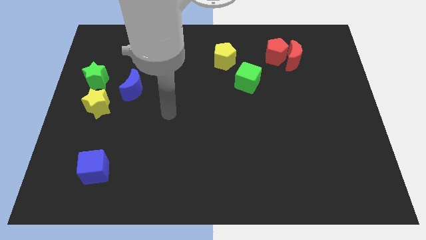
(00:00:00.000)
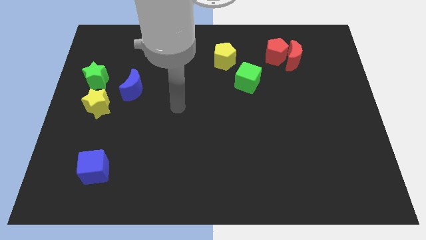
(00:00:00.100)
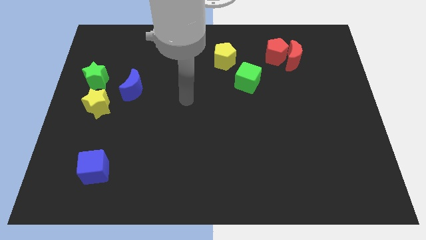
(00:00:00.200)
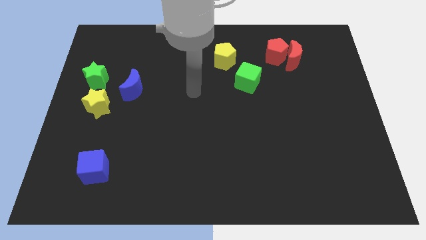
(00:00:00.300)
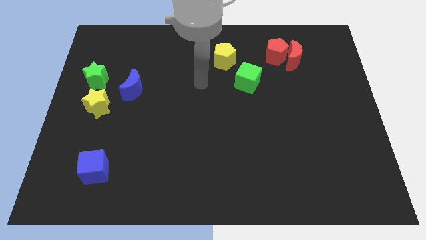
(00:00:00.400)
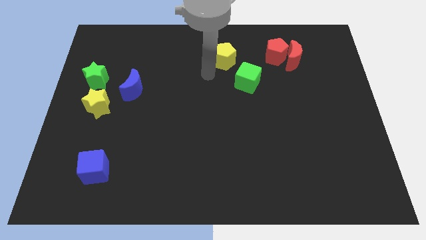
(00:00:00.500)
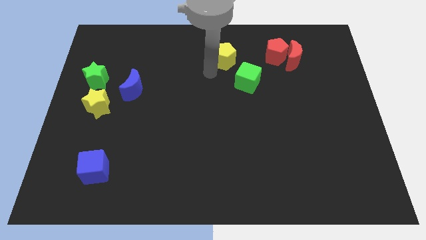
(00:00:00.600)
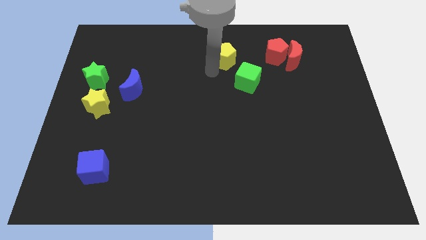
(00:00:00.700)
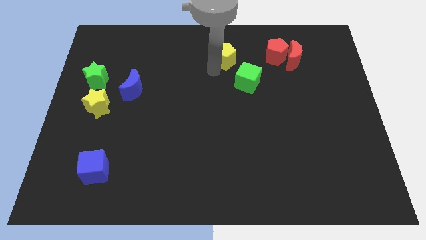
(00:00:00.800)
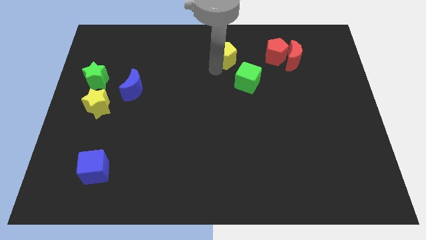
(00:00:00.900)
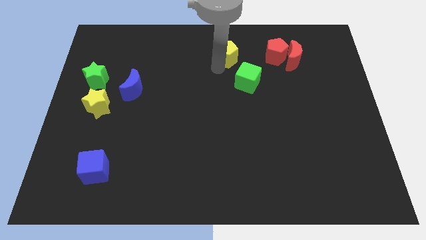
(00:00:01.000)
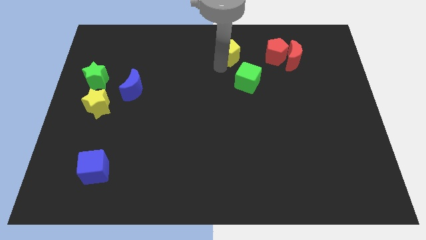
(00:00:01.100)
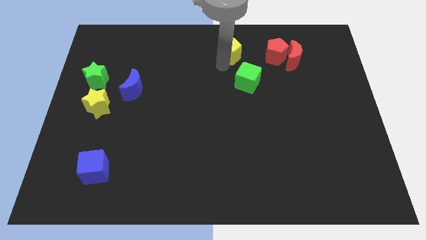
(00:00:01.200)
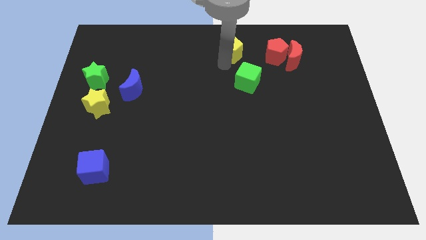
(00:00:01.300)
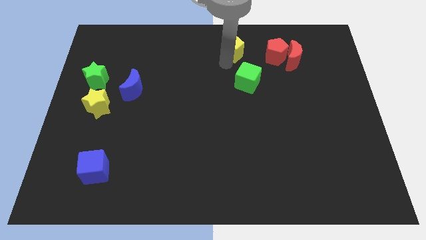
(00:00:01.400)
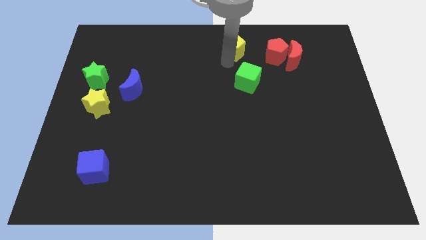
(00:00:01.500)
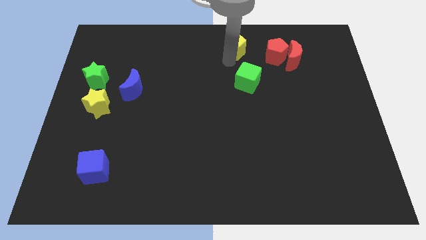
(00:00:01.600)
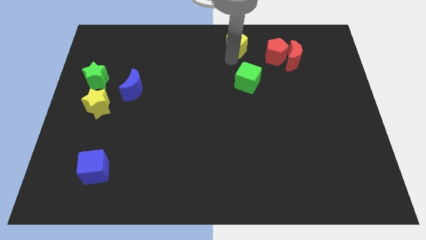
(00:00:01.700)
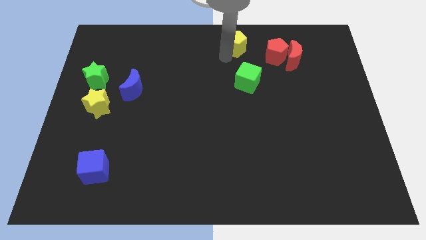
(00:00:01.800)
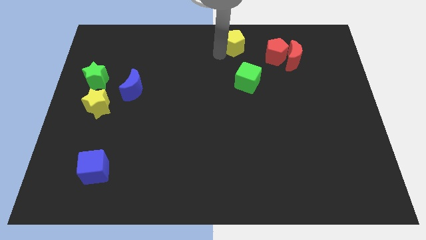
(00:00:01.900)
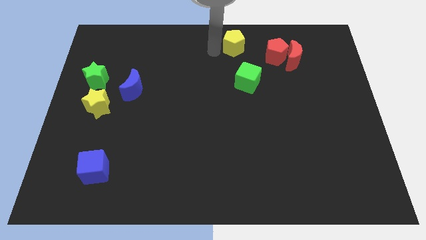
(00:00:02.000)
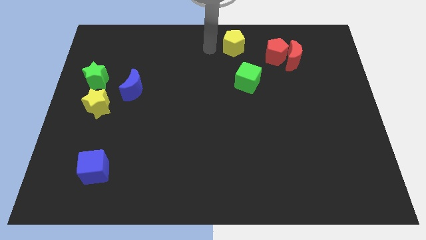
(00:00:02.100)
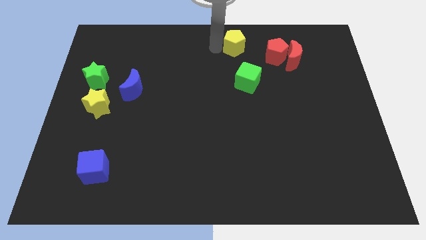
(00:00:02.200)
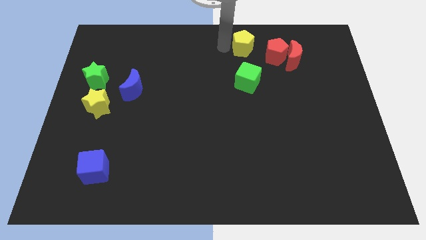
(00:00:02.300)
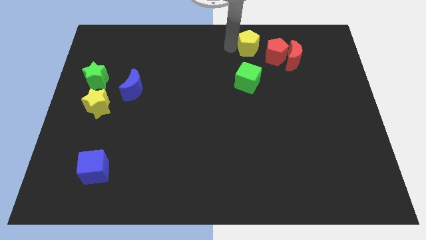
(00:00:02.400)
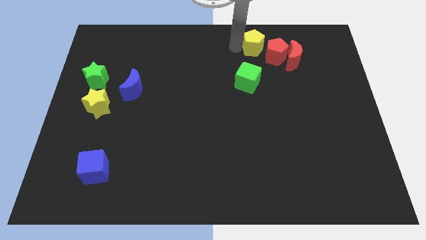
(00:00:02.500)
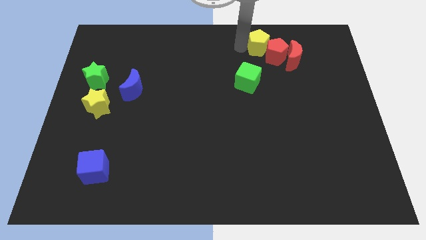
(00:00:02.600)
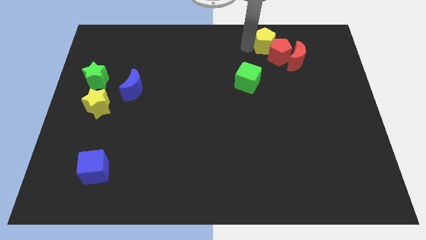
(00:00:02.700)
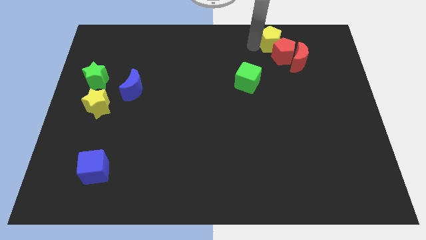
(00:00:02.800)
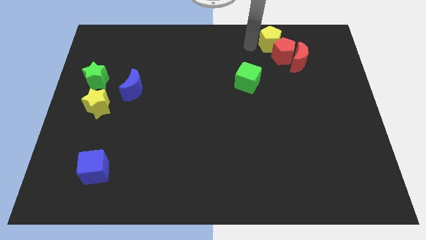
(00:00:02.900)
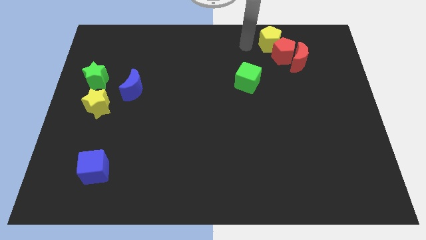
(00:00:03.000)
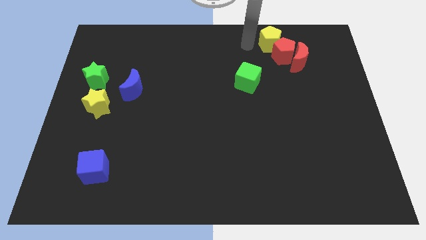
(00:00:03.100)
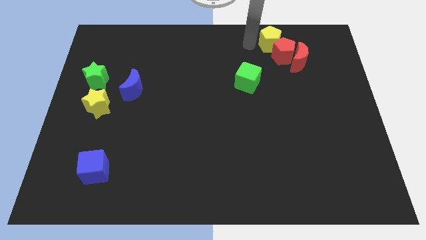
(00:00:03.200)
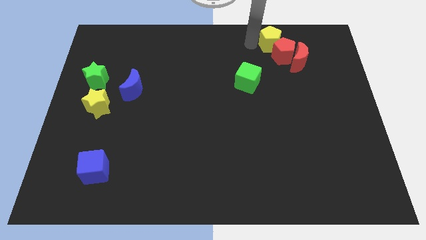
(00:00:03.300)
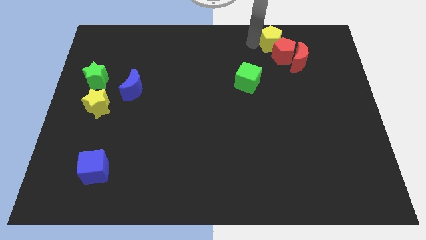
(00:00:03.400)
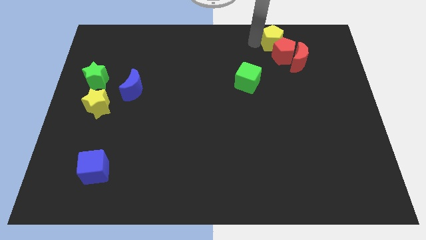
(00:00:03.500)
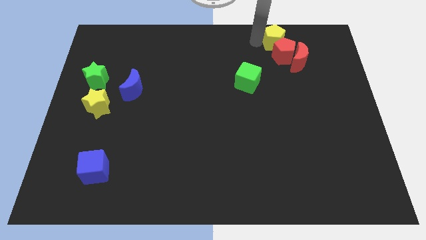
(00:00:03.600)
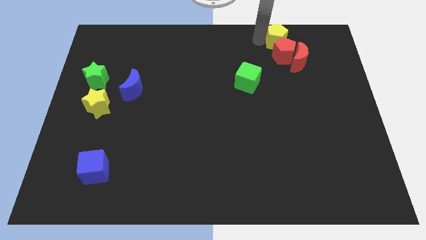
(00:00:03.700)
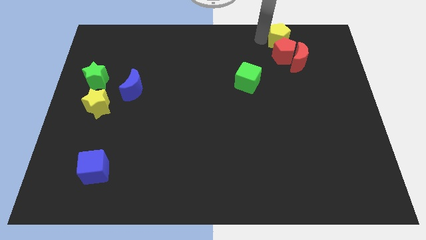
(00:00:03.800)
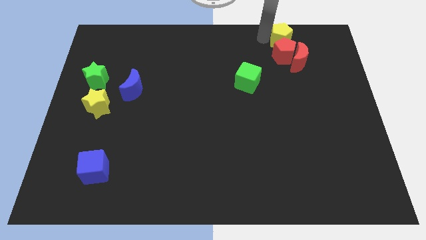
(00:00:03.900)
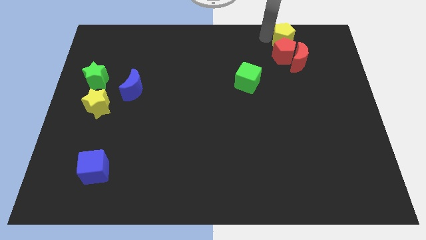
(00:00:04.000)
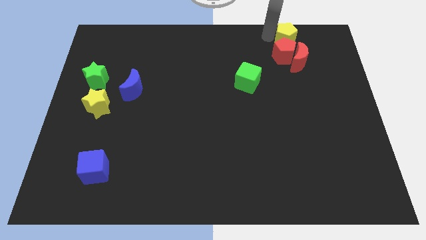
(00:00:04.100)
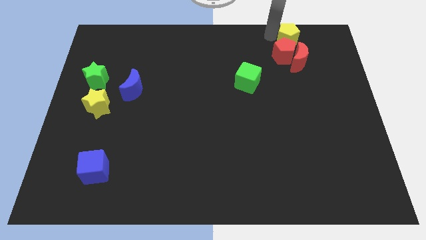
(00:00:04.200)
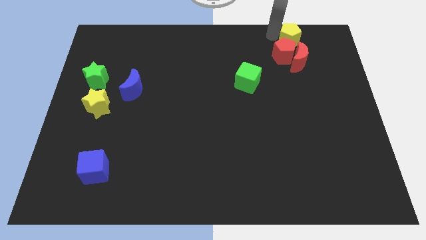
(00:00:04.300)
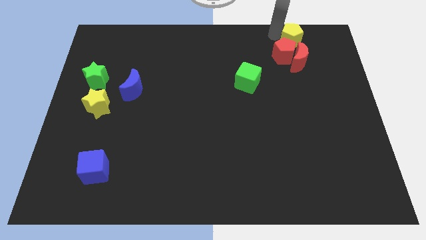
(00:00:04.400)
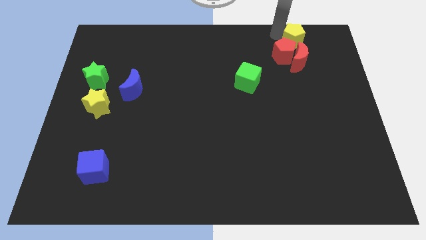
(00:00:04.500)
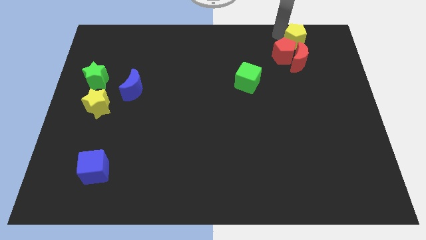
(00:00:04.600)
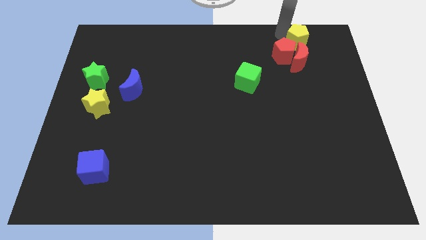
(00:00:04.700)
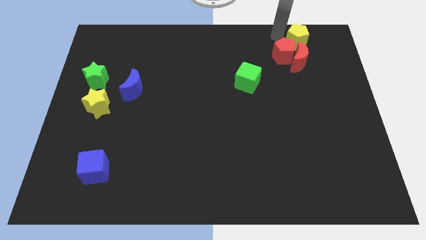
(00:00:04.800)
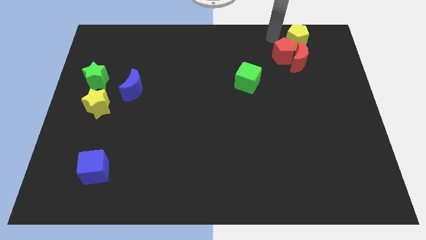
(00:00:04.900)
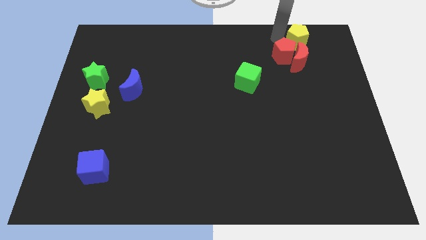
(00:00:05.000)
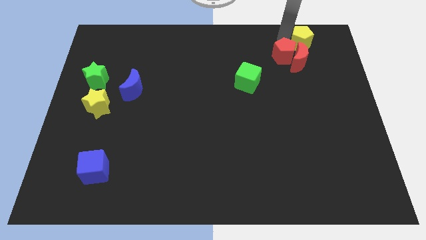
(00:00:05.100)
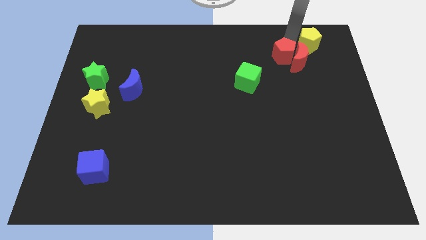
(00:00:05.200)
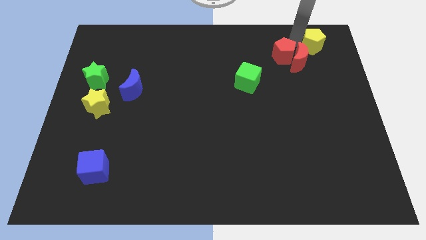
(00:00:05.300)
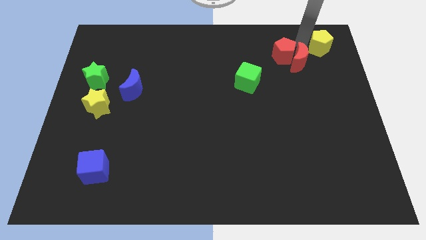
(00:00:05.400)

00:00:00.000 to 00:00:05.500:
put the yellow pentagon to the upper right corner

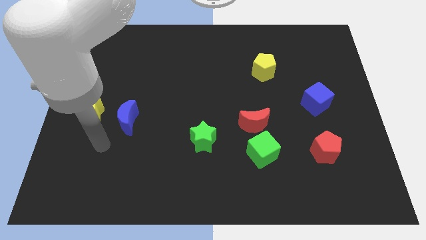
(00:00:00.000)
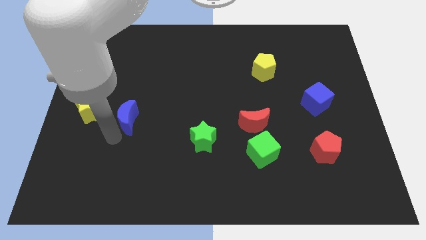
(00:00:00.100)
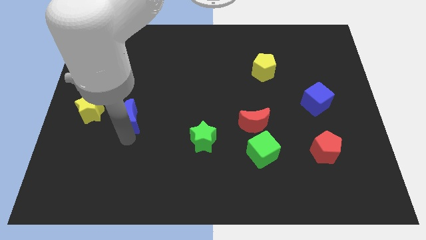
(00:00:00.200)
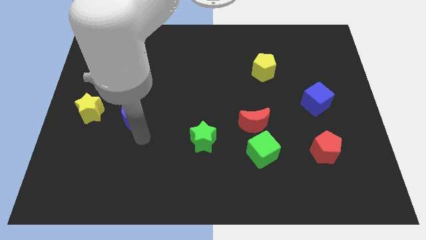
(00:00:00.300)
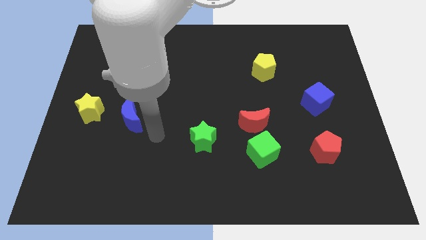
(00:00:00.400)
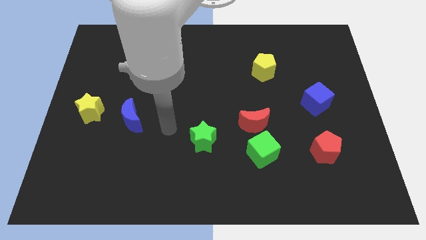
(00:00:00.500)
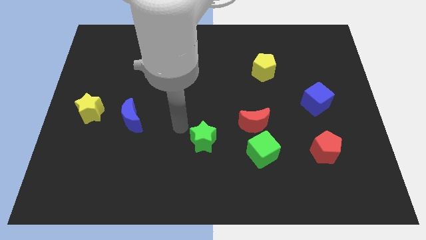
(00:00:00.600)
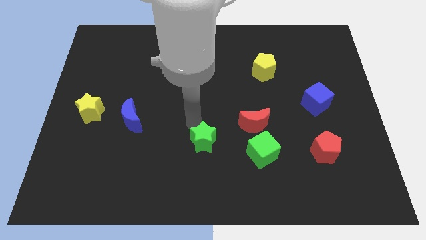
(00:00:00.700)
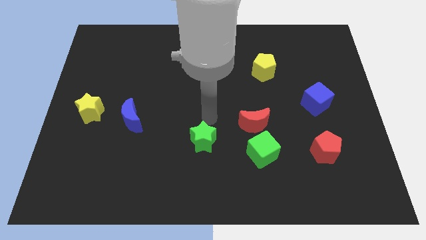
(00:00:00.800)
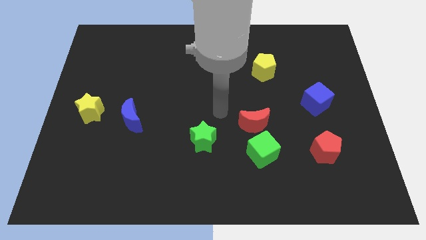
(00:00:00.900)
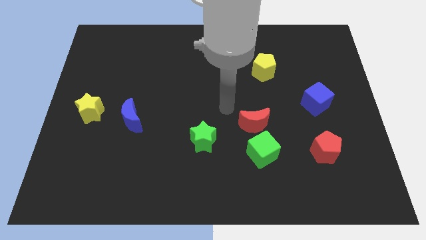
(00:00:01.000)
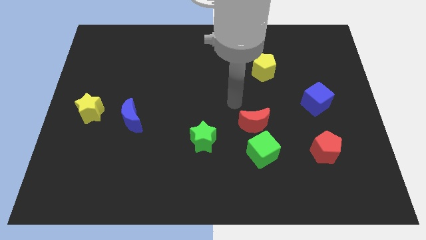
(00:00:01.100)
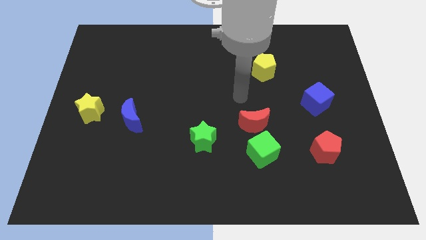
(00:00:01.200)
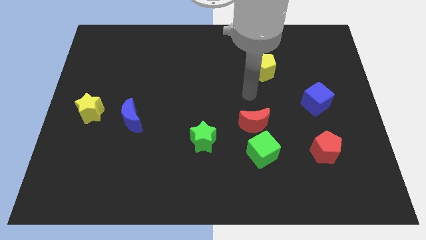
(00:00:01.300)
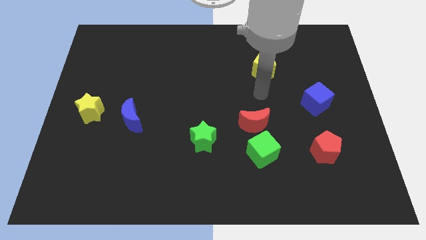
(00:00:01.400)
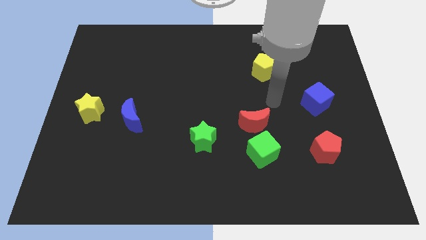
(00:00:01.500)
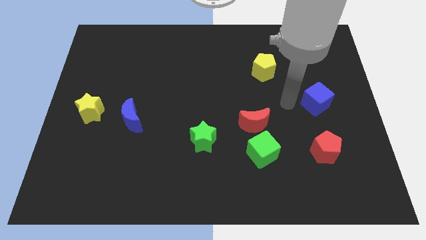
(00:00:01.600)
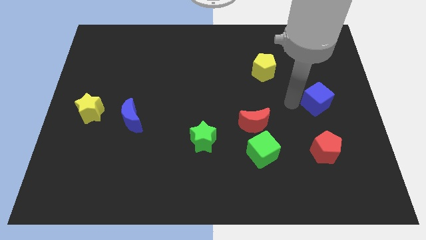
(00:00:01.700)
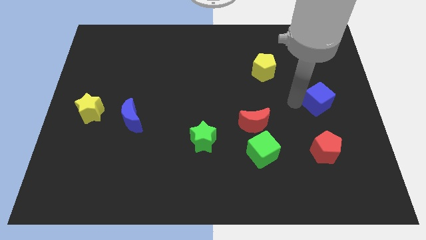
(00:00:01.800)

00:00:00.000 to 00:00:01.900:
move the blue cube to the right side

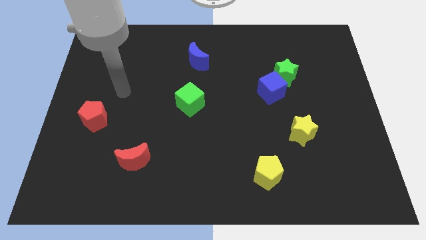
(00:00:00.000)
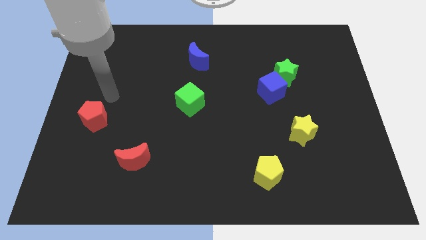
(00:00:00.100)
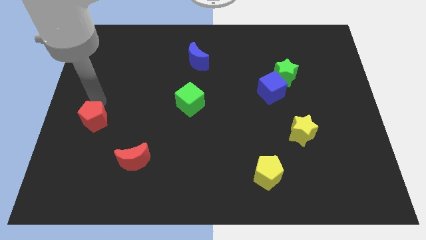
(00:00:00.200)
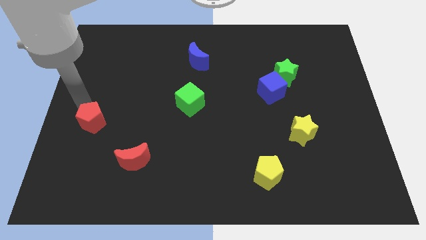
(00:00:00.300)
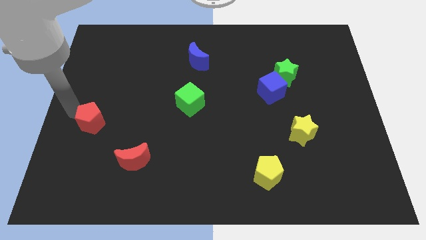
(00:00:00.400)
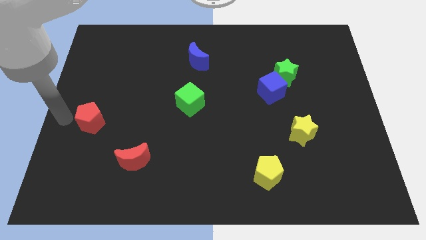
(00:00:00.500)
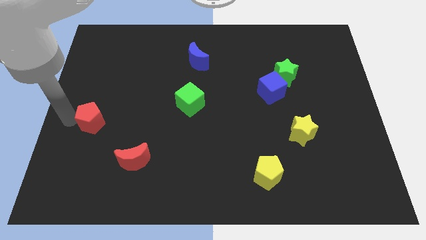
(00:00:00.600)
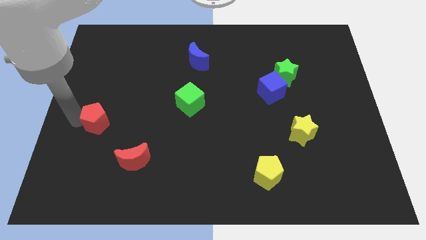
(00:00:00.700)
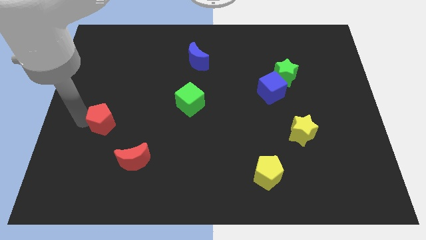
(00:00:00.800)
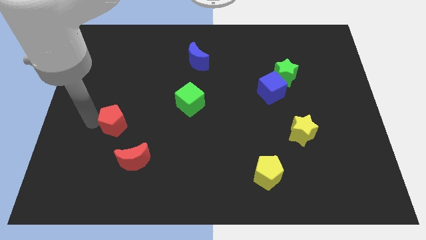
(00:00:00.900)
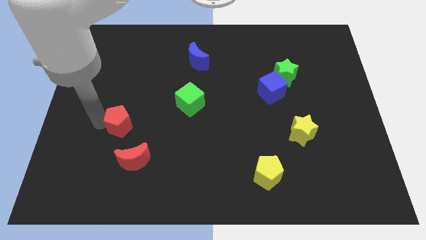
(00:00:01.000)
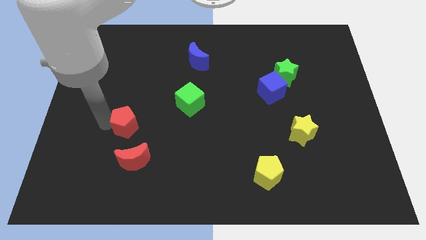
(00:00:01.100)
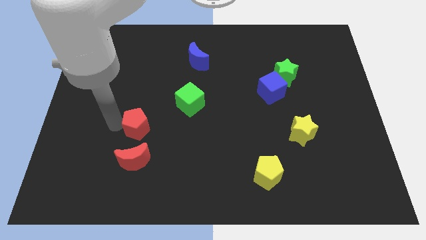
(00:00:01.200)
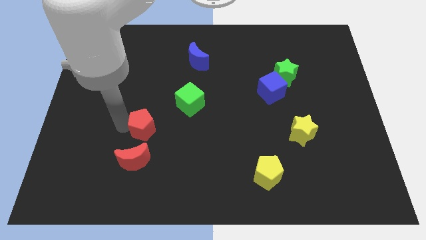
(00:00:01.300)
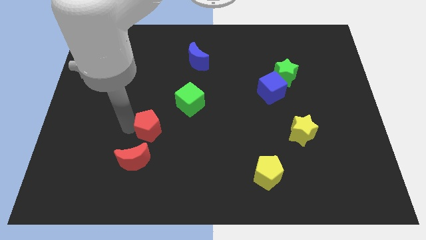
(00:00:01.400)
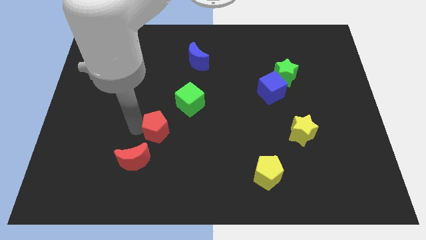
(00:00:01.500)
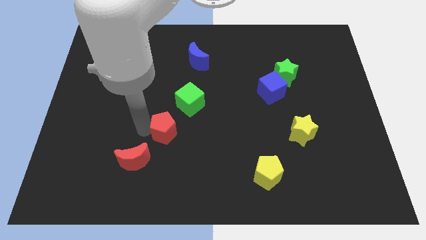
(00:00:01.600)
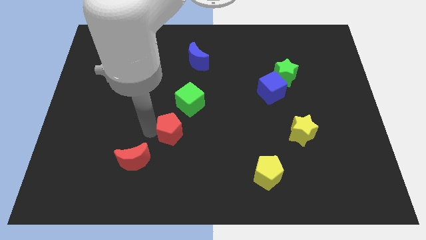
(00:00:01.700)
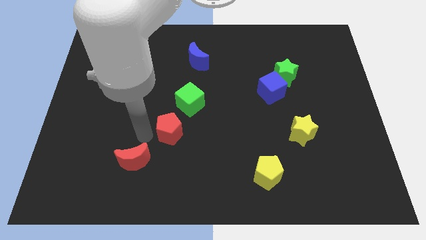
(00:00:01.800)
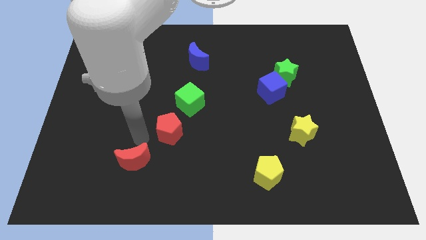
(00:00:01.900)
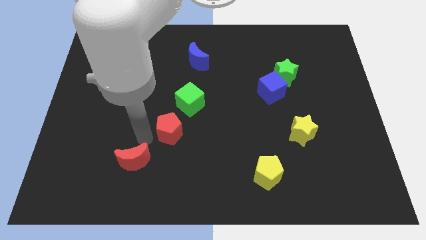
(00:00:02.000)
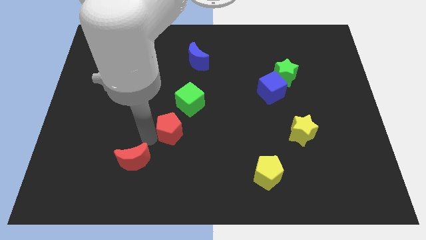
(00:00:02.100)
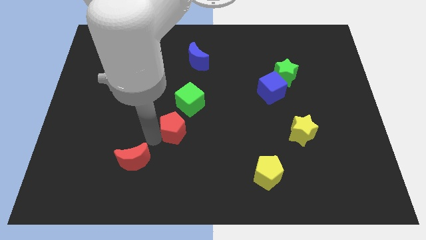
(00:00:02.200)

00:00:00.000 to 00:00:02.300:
move the red pentagon to the center of the board
